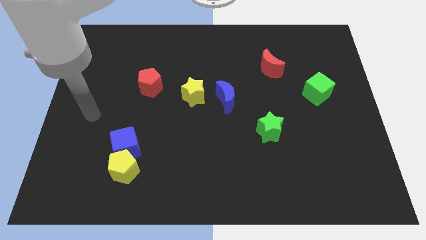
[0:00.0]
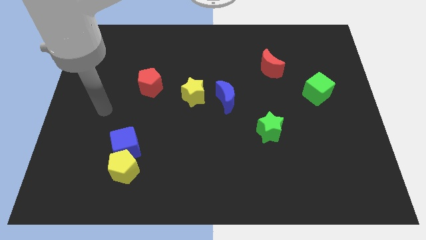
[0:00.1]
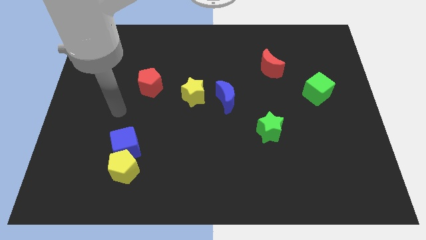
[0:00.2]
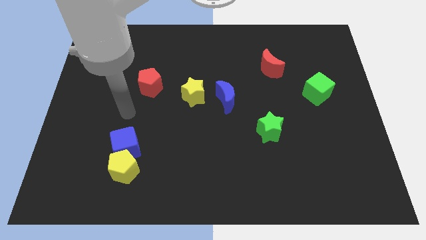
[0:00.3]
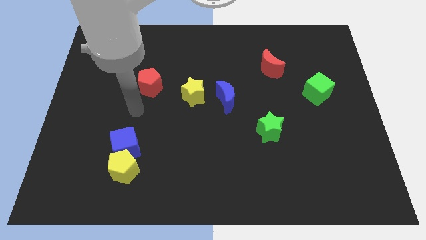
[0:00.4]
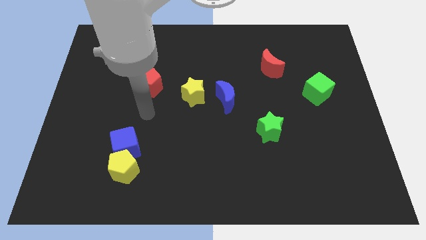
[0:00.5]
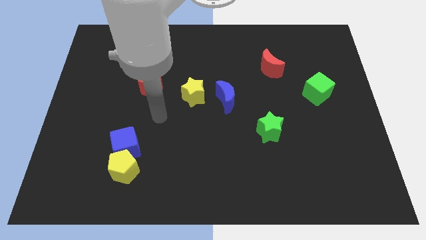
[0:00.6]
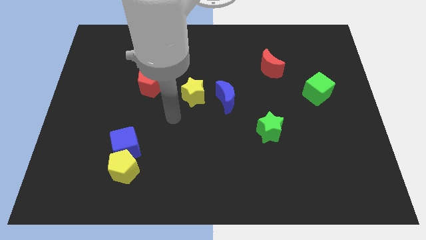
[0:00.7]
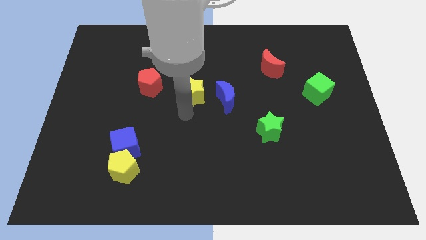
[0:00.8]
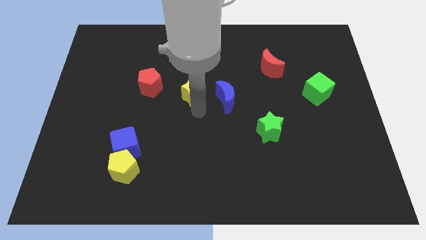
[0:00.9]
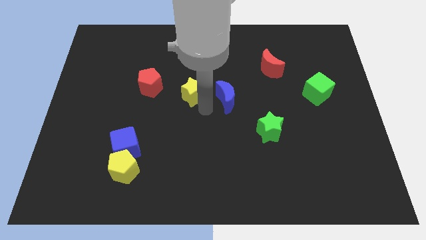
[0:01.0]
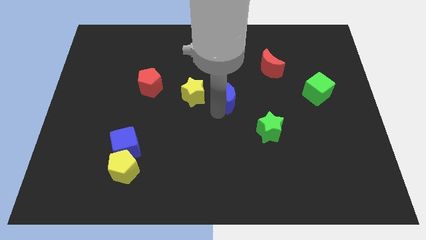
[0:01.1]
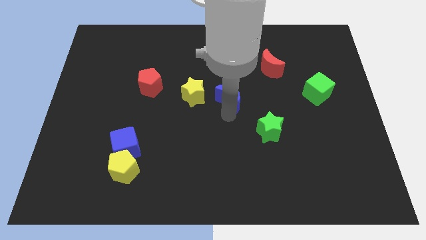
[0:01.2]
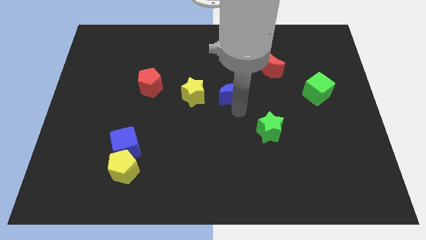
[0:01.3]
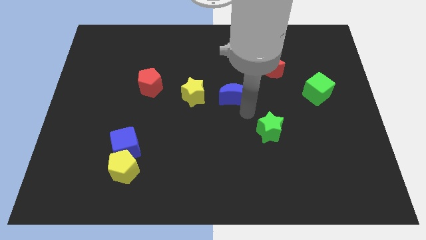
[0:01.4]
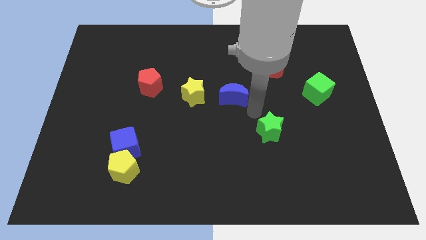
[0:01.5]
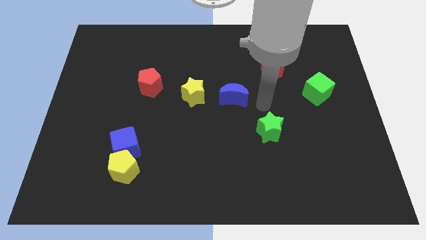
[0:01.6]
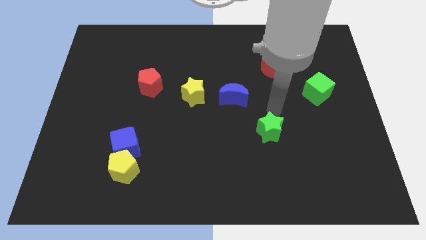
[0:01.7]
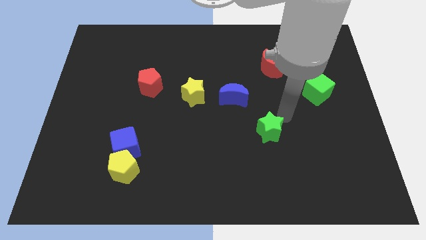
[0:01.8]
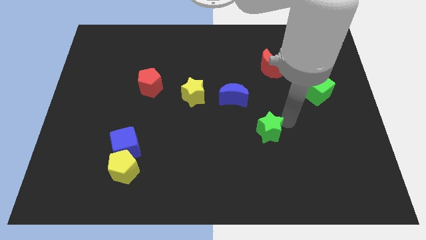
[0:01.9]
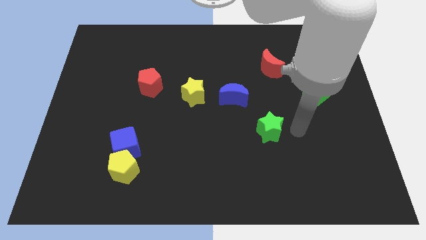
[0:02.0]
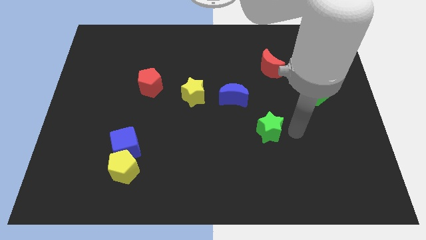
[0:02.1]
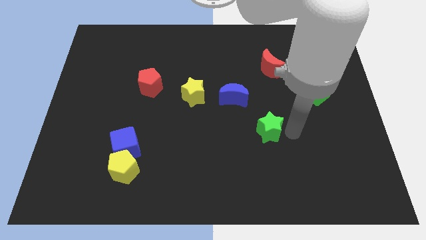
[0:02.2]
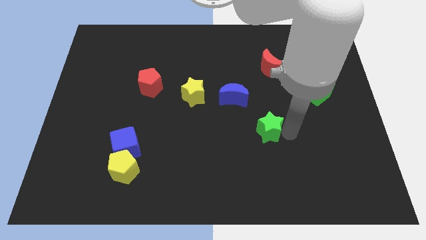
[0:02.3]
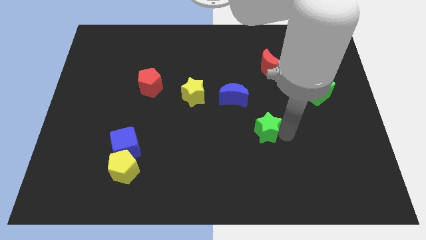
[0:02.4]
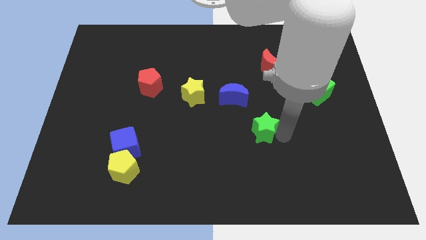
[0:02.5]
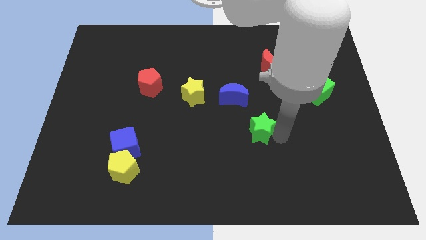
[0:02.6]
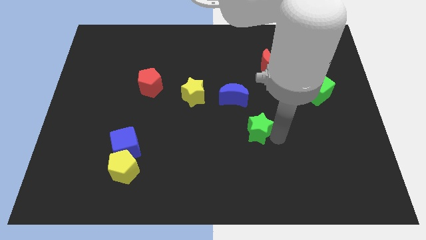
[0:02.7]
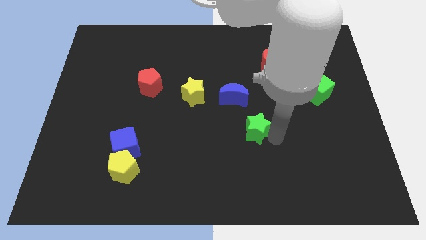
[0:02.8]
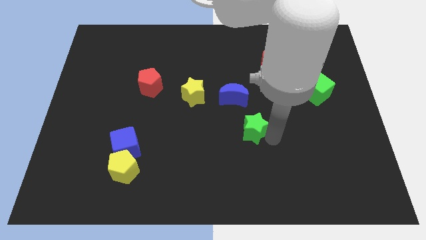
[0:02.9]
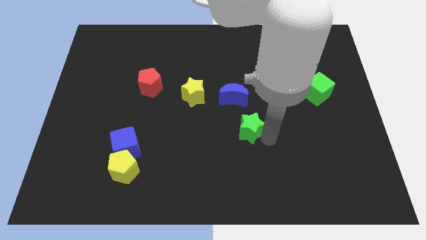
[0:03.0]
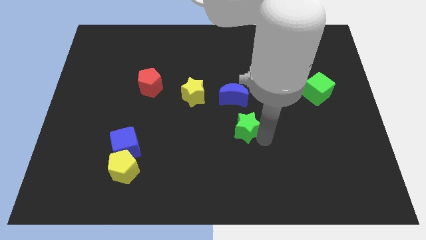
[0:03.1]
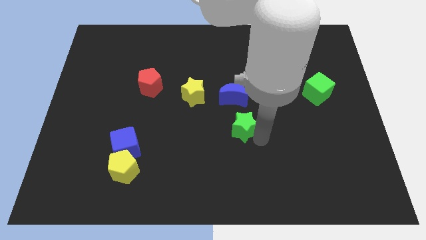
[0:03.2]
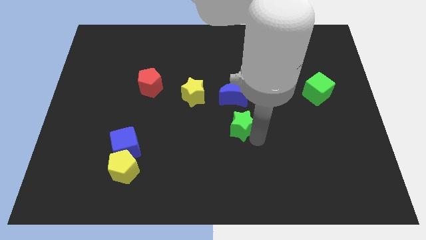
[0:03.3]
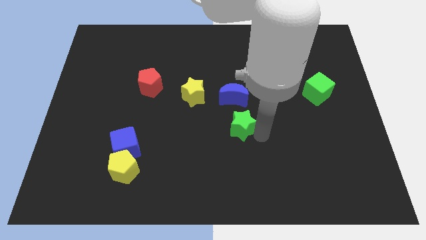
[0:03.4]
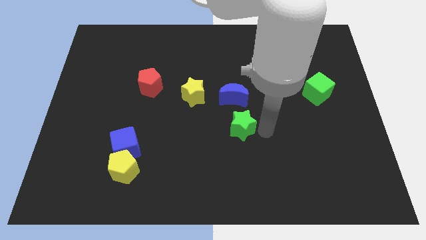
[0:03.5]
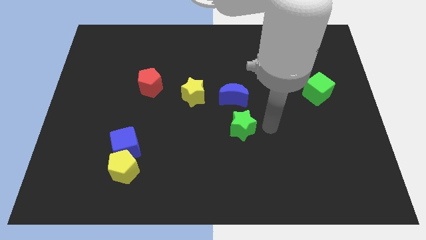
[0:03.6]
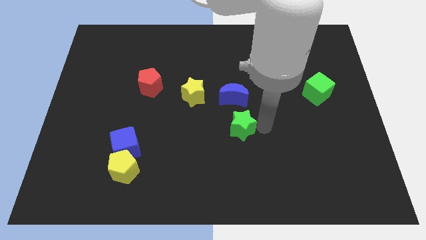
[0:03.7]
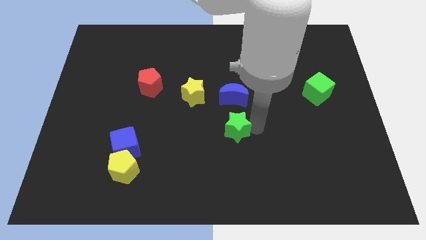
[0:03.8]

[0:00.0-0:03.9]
move the green star left a bit

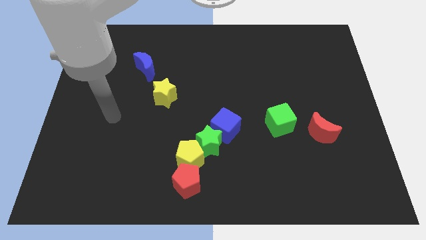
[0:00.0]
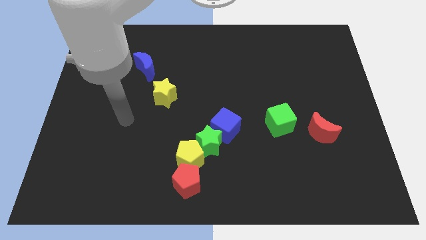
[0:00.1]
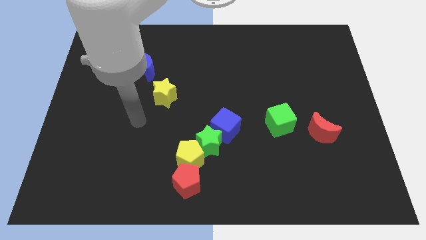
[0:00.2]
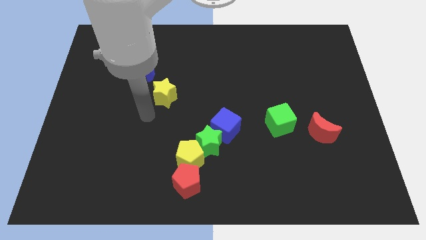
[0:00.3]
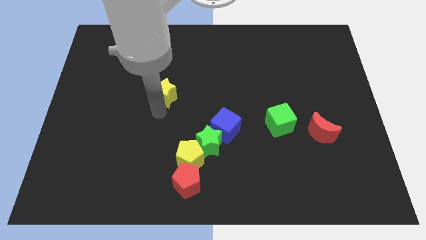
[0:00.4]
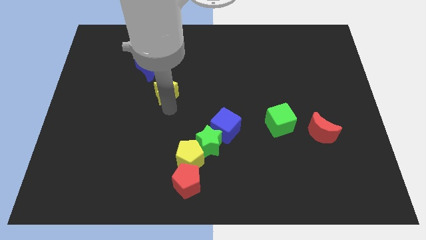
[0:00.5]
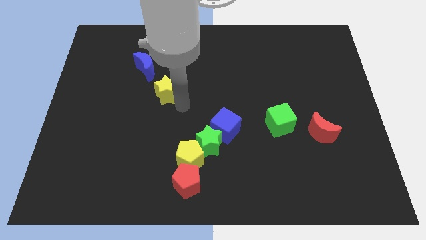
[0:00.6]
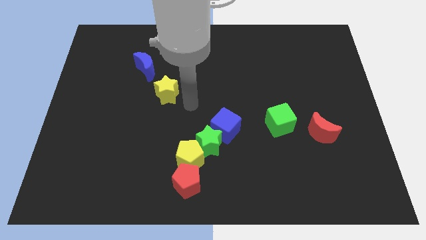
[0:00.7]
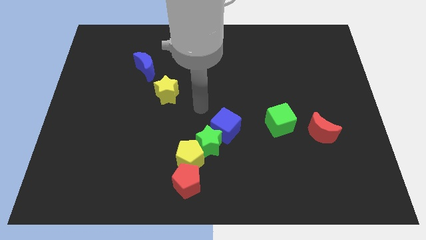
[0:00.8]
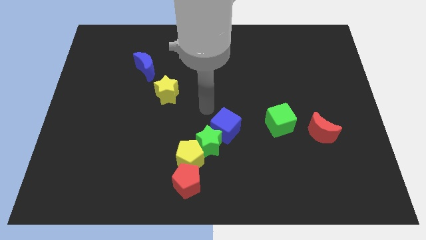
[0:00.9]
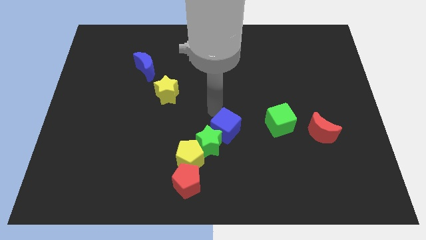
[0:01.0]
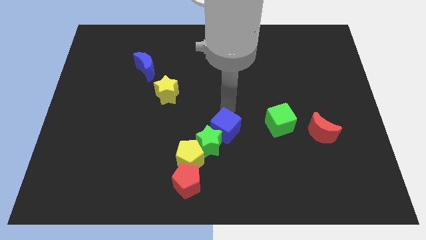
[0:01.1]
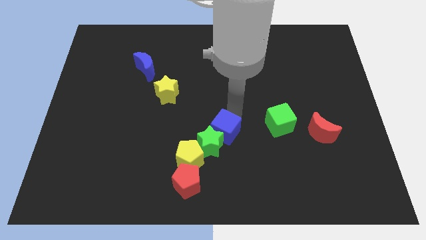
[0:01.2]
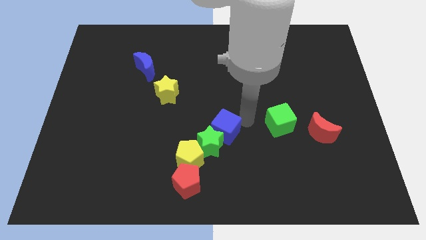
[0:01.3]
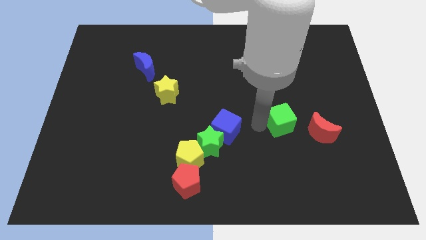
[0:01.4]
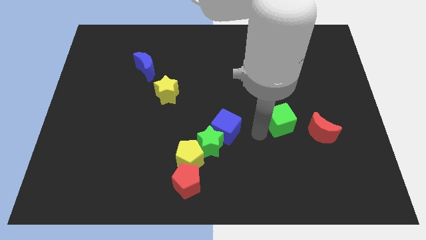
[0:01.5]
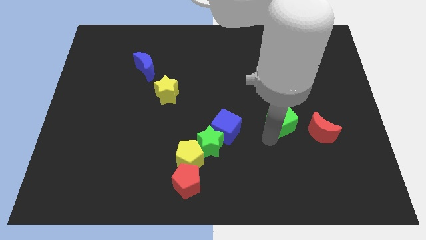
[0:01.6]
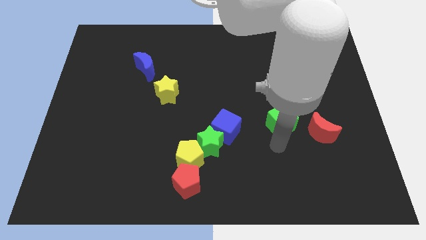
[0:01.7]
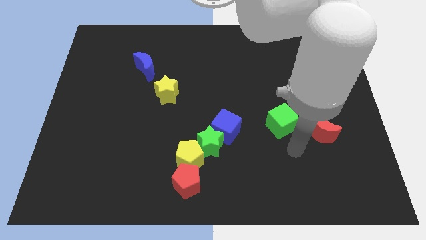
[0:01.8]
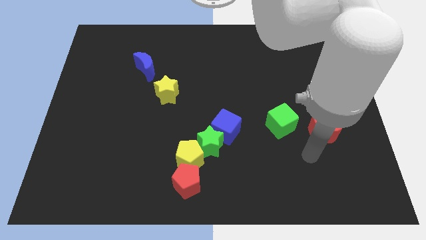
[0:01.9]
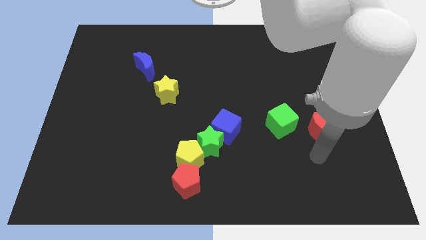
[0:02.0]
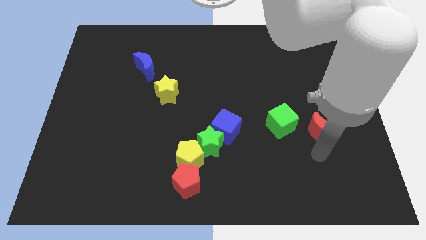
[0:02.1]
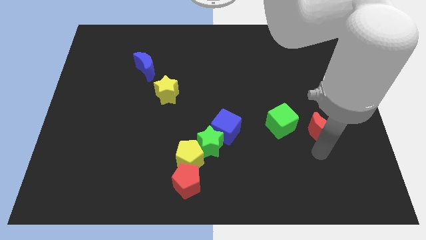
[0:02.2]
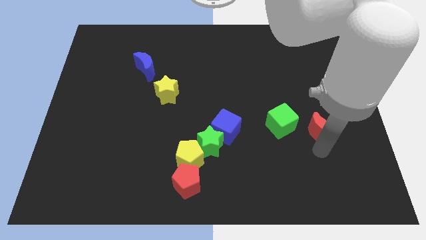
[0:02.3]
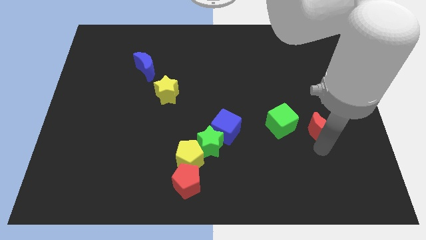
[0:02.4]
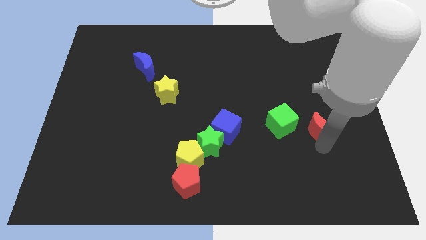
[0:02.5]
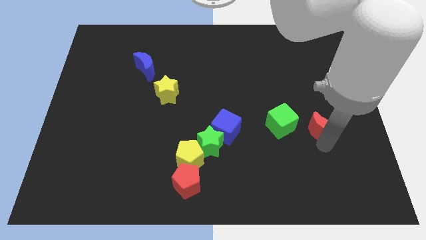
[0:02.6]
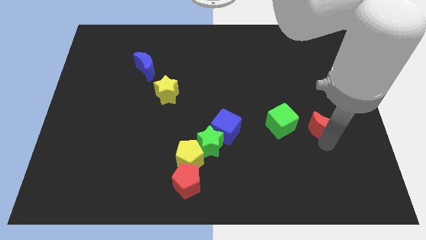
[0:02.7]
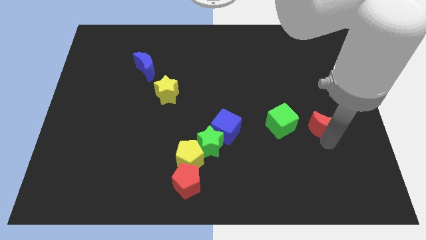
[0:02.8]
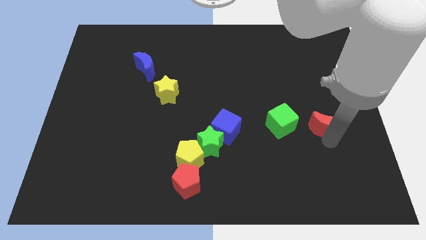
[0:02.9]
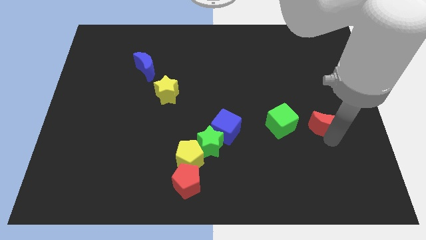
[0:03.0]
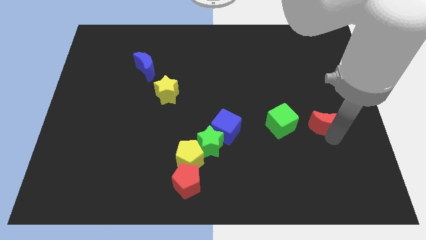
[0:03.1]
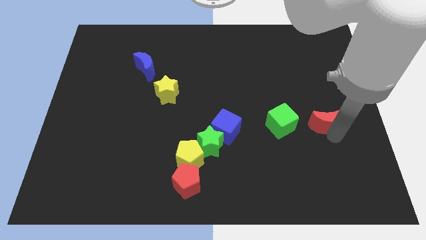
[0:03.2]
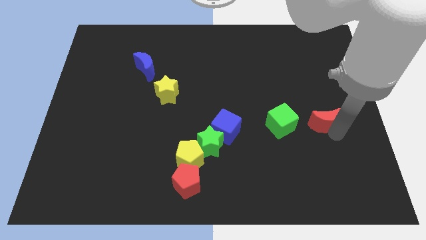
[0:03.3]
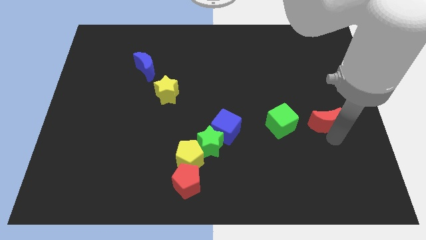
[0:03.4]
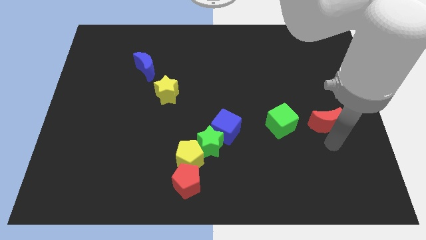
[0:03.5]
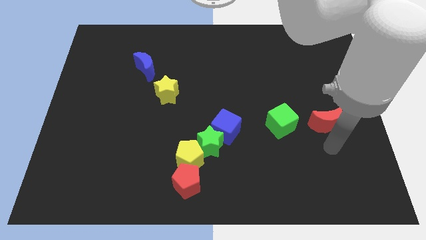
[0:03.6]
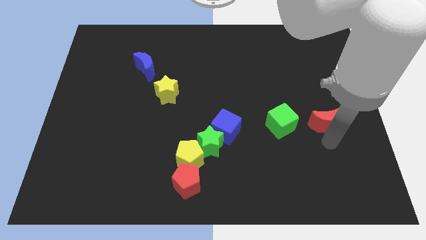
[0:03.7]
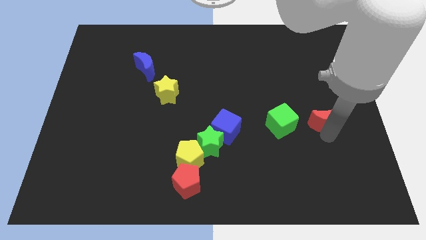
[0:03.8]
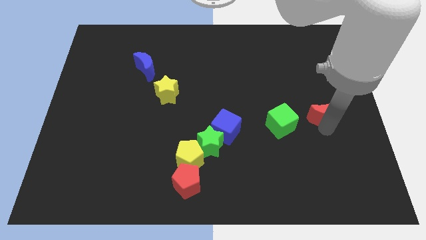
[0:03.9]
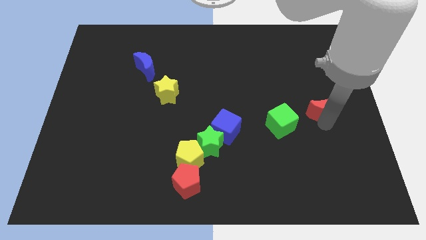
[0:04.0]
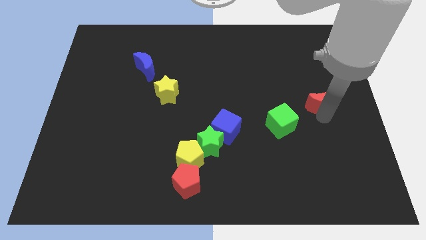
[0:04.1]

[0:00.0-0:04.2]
slightly slide the red moon upwards

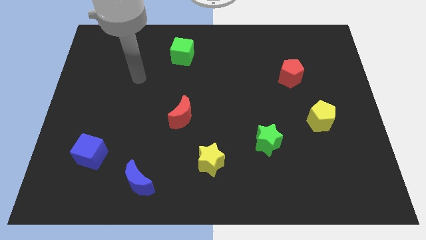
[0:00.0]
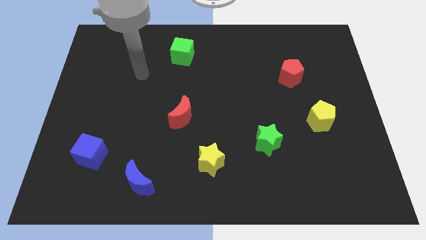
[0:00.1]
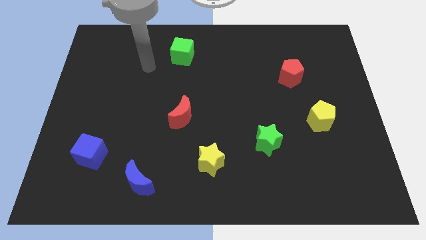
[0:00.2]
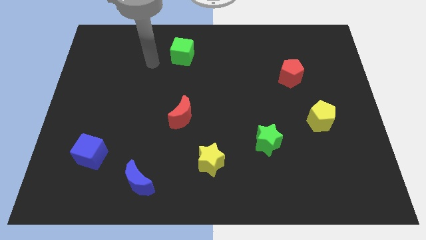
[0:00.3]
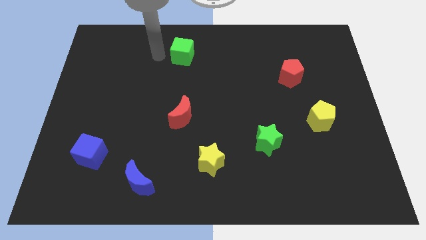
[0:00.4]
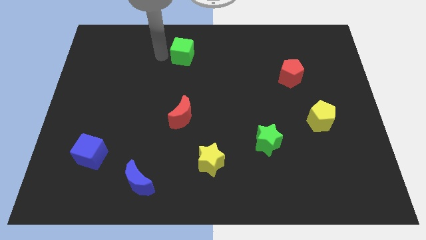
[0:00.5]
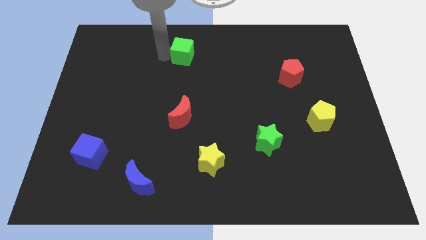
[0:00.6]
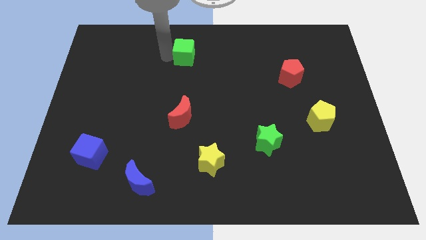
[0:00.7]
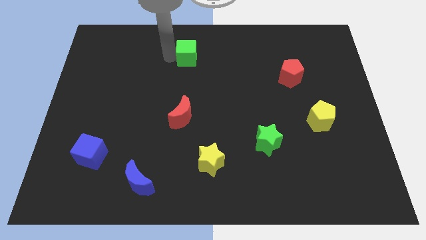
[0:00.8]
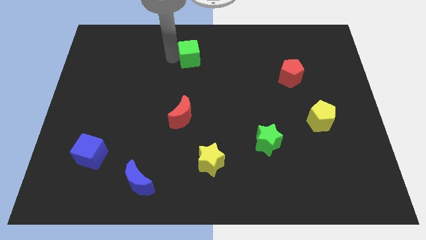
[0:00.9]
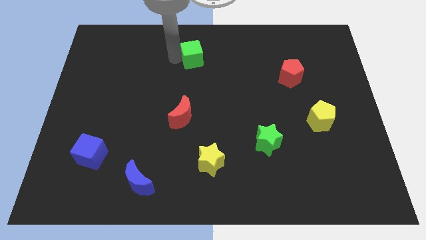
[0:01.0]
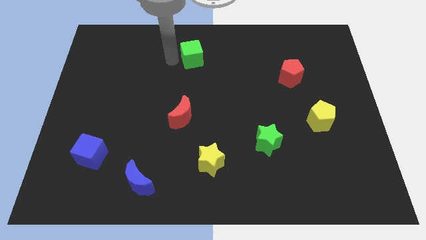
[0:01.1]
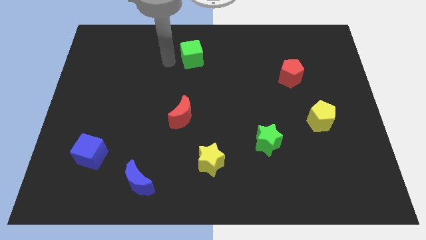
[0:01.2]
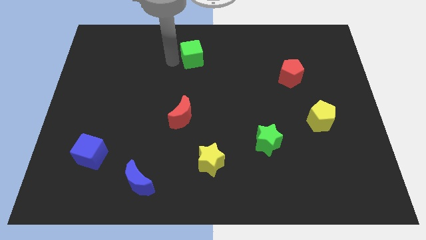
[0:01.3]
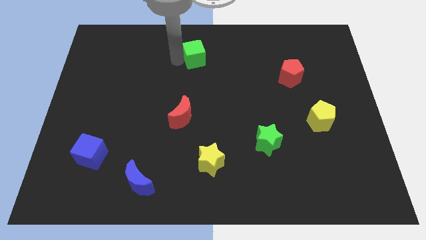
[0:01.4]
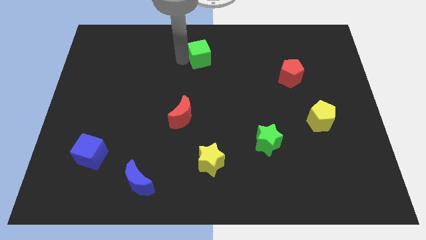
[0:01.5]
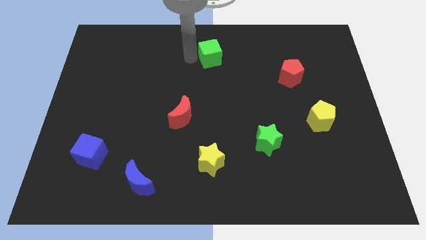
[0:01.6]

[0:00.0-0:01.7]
move the green cube a bit right
